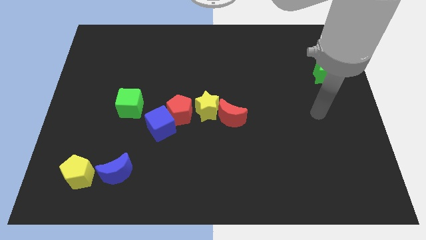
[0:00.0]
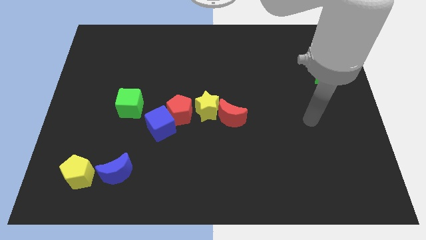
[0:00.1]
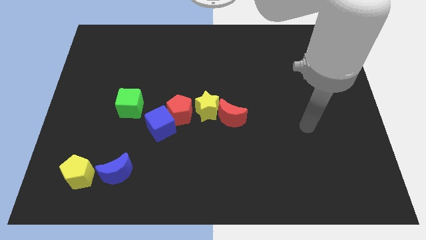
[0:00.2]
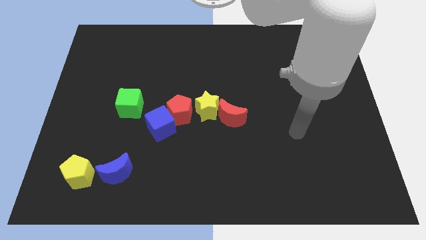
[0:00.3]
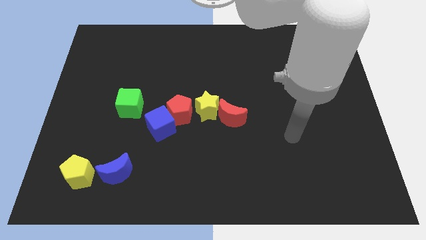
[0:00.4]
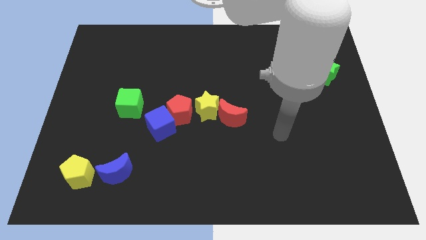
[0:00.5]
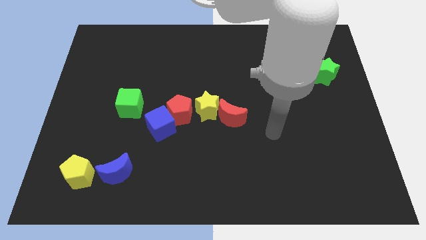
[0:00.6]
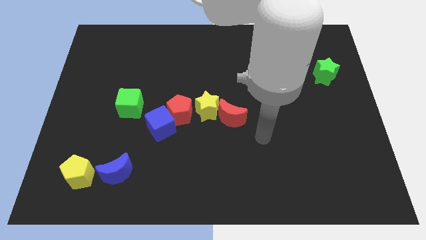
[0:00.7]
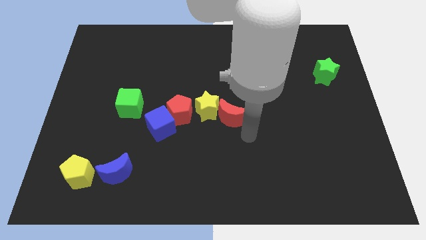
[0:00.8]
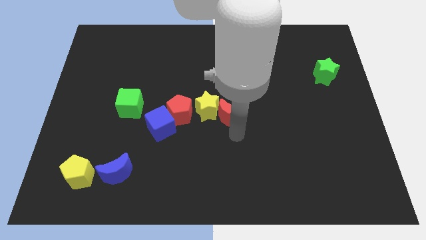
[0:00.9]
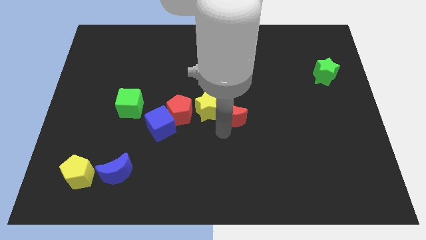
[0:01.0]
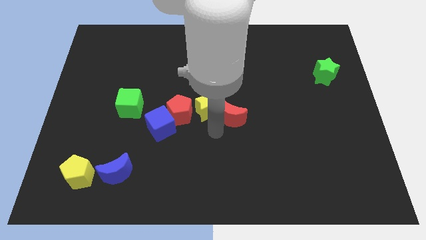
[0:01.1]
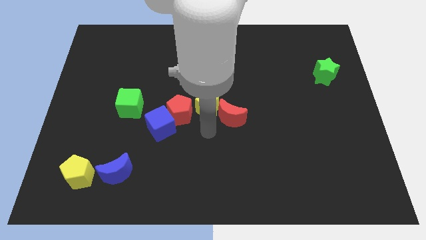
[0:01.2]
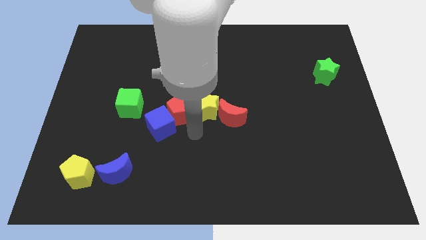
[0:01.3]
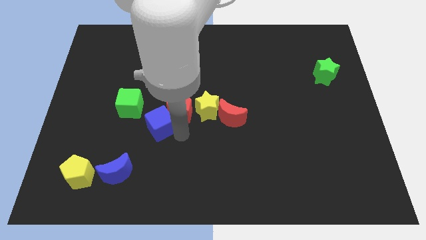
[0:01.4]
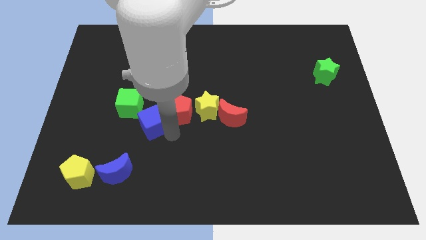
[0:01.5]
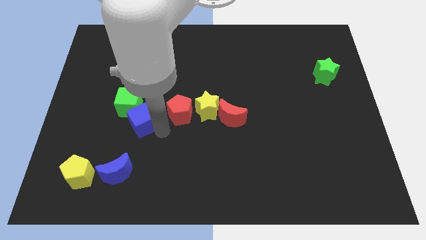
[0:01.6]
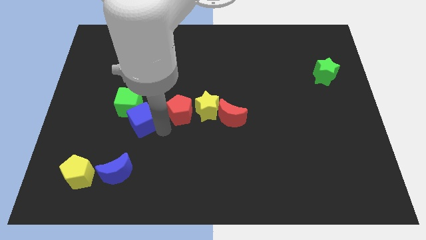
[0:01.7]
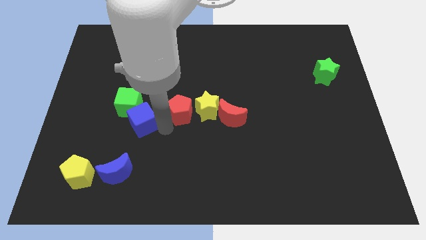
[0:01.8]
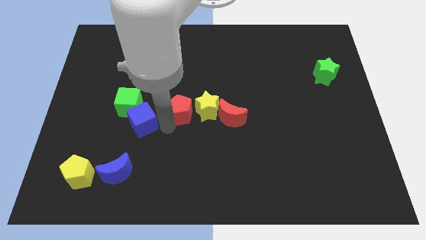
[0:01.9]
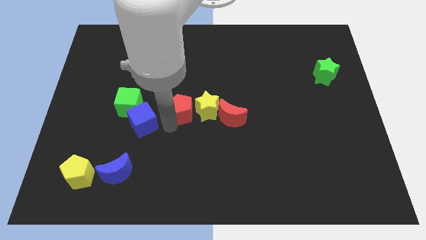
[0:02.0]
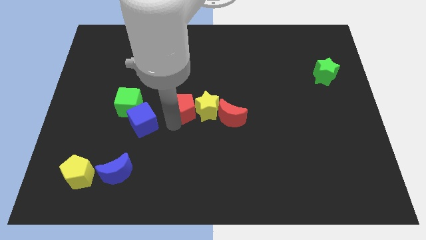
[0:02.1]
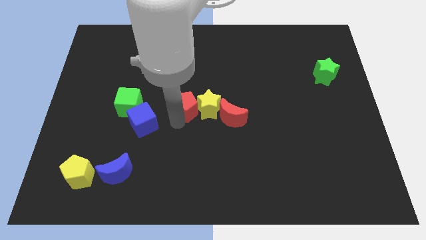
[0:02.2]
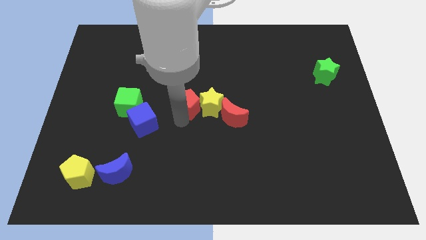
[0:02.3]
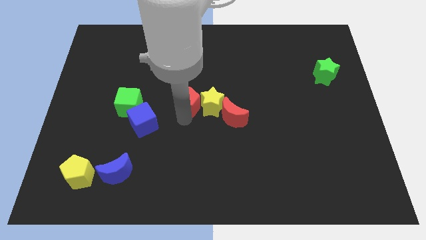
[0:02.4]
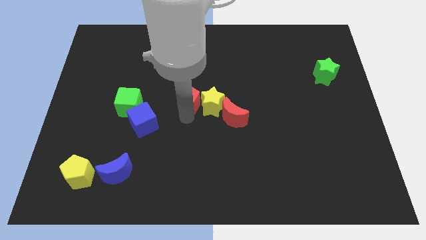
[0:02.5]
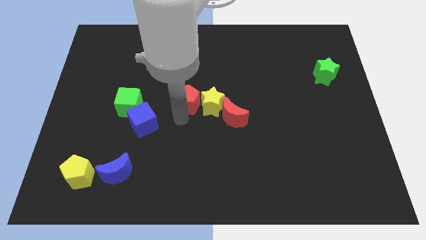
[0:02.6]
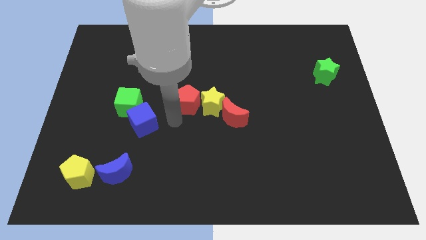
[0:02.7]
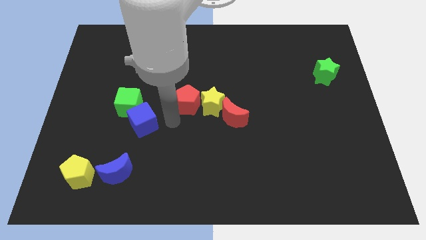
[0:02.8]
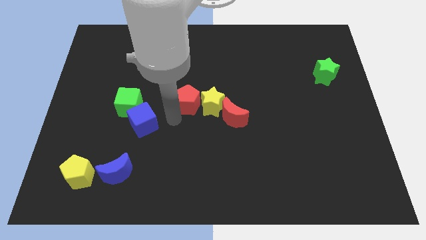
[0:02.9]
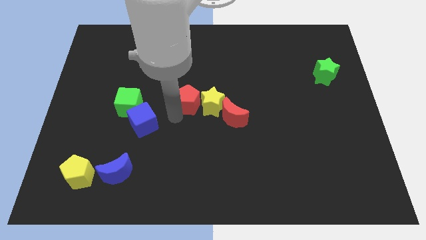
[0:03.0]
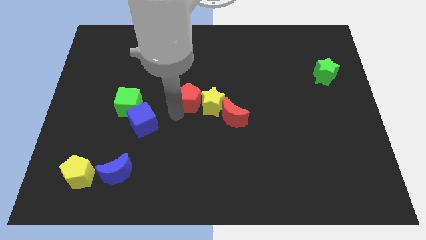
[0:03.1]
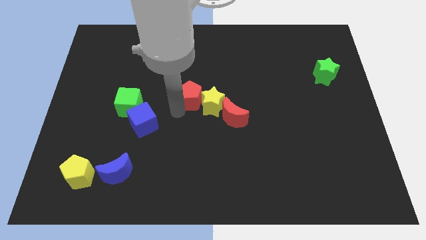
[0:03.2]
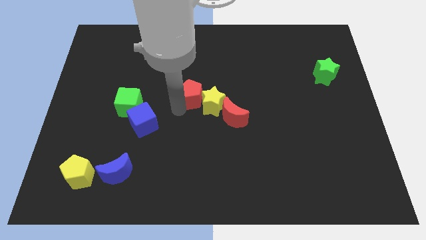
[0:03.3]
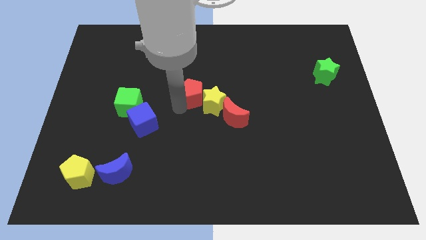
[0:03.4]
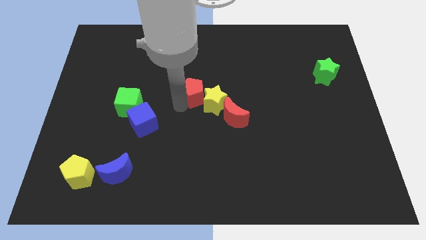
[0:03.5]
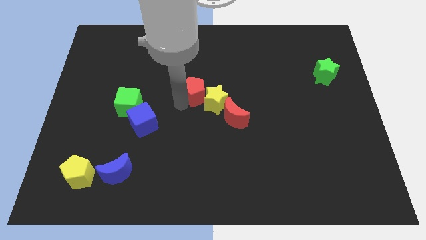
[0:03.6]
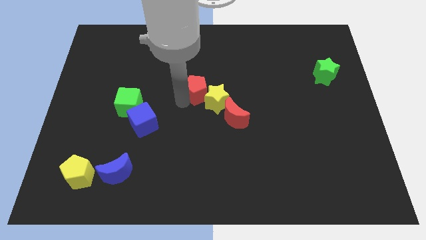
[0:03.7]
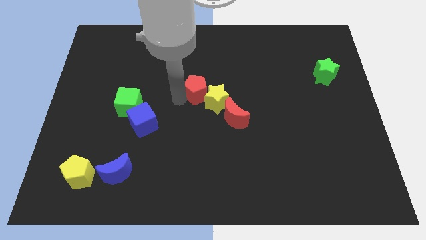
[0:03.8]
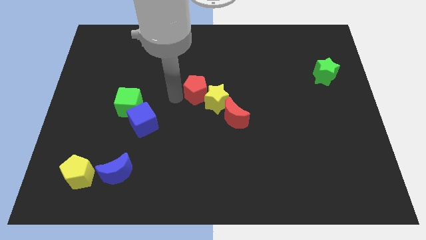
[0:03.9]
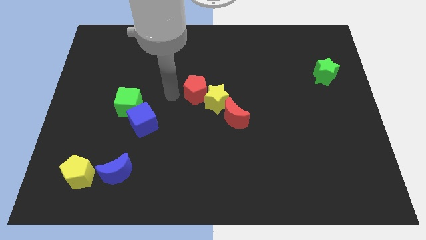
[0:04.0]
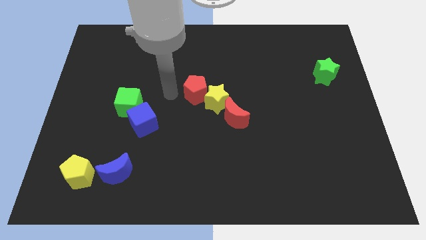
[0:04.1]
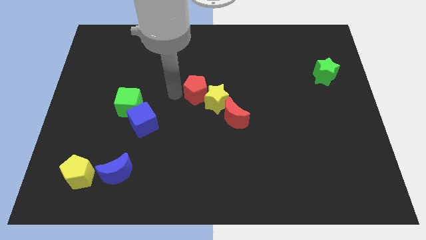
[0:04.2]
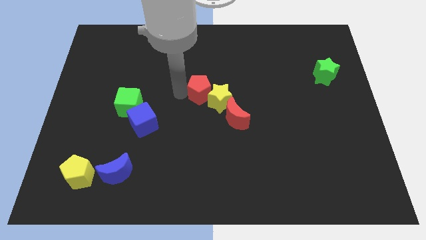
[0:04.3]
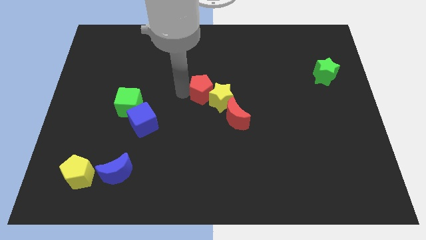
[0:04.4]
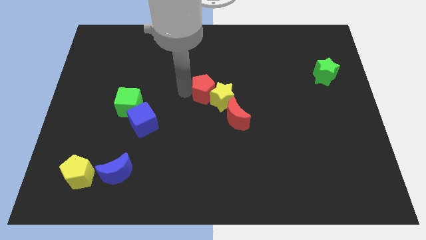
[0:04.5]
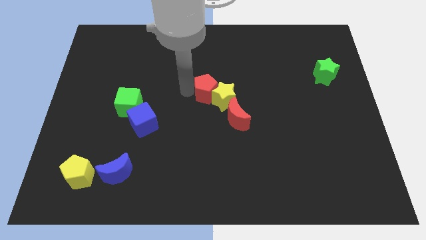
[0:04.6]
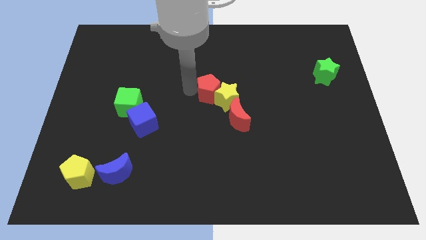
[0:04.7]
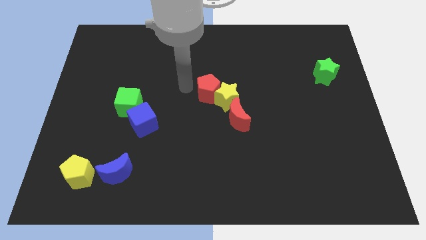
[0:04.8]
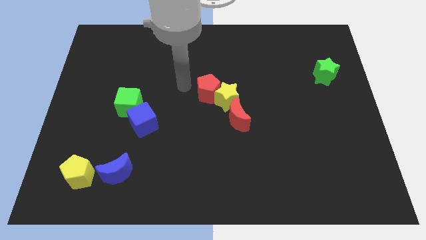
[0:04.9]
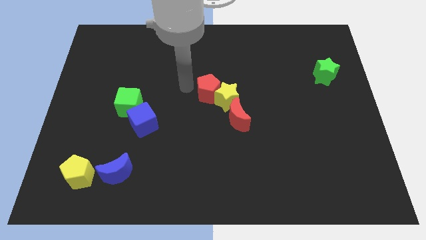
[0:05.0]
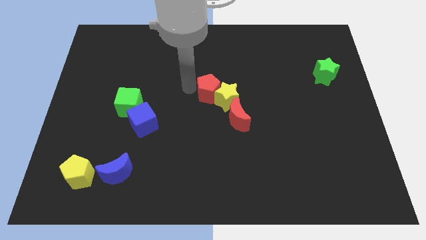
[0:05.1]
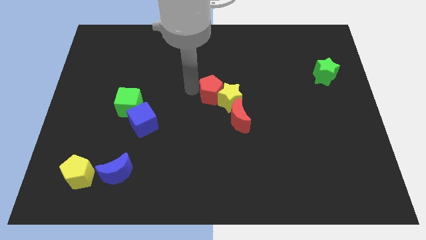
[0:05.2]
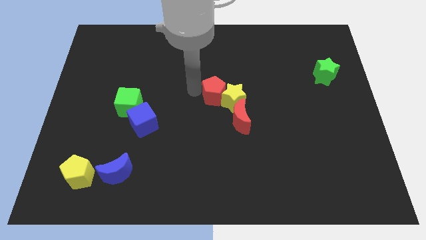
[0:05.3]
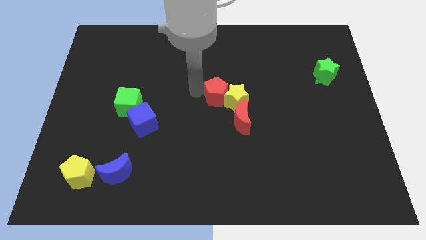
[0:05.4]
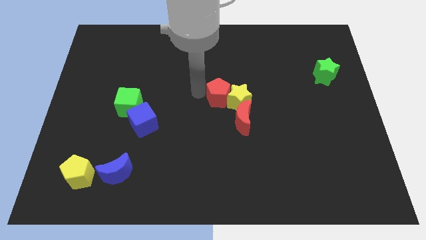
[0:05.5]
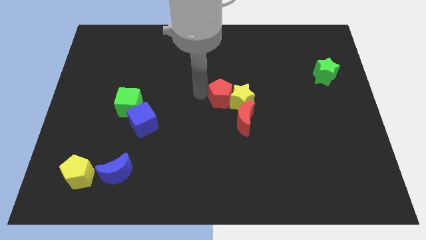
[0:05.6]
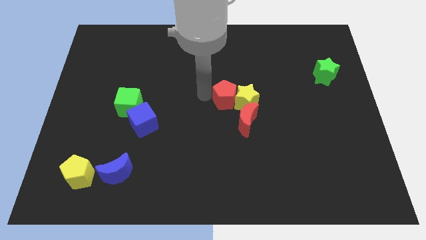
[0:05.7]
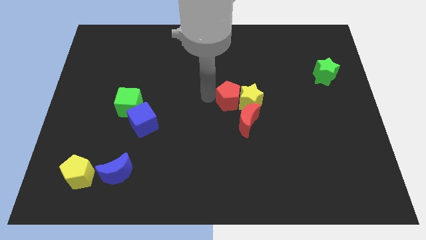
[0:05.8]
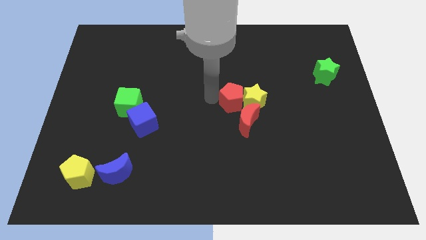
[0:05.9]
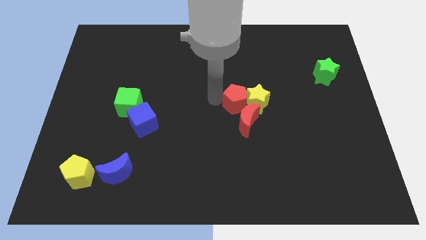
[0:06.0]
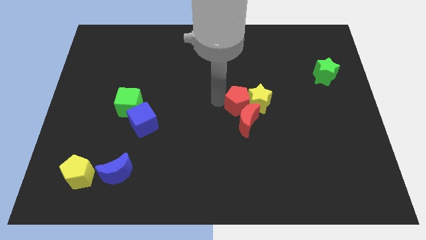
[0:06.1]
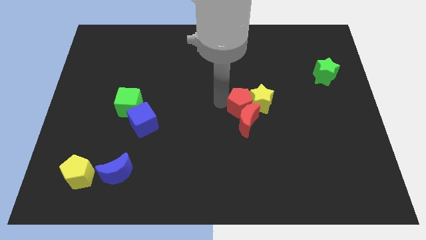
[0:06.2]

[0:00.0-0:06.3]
slide the red pentagon to the top right of the red moon

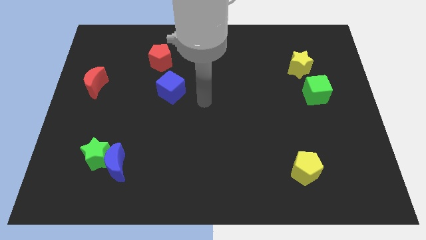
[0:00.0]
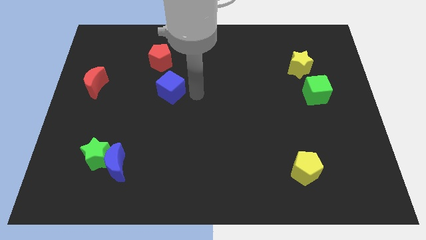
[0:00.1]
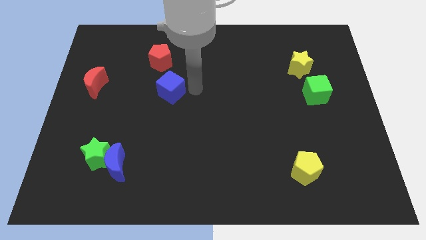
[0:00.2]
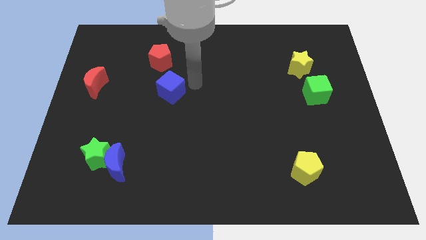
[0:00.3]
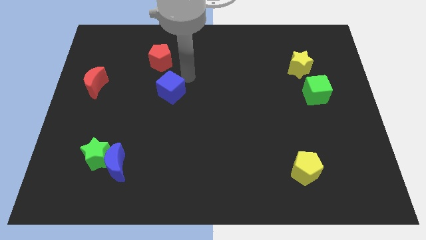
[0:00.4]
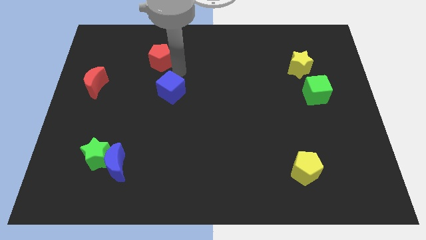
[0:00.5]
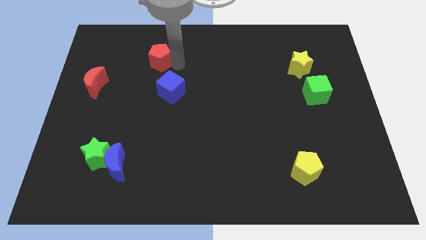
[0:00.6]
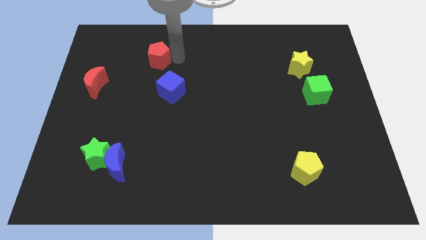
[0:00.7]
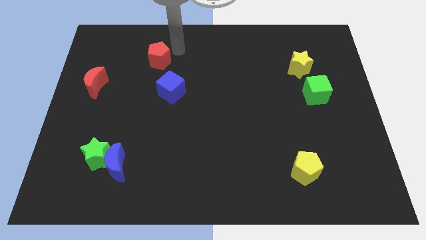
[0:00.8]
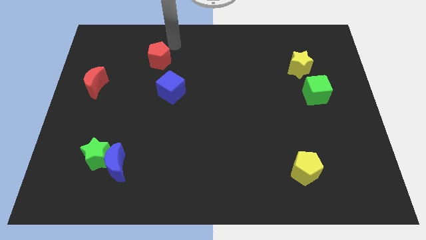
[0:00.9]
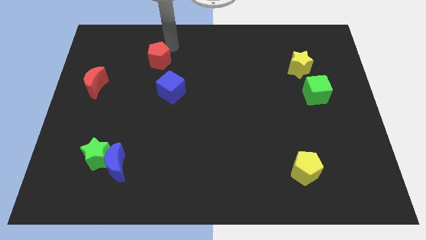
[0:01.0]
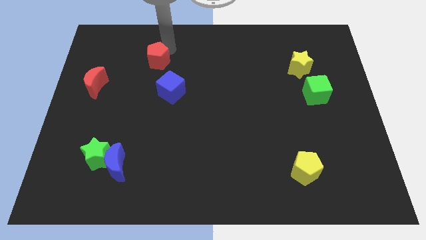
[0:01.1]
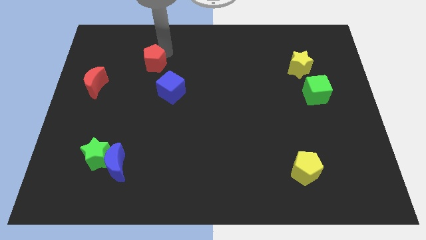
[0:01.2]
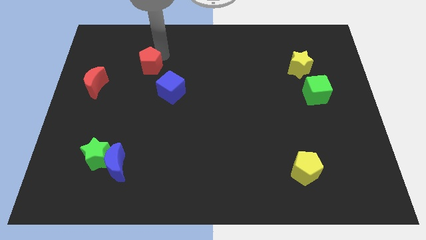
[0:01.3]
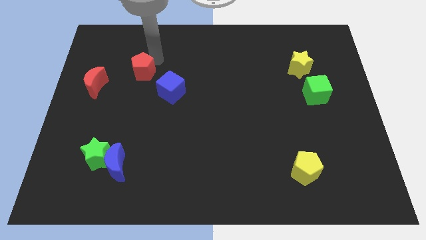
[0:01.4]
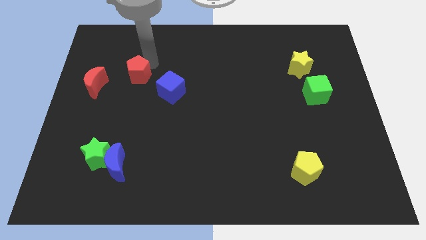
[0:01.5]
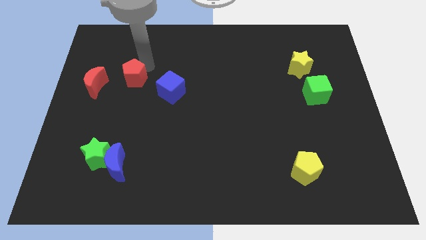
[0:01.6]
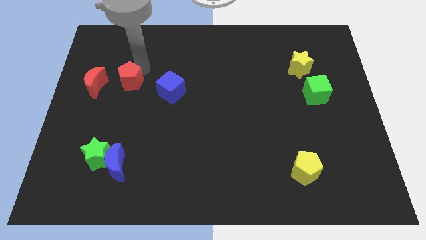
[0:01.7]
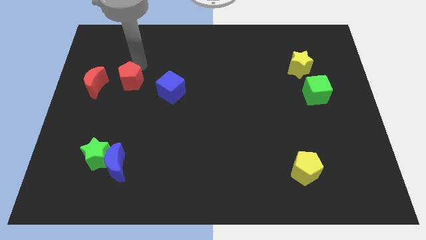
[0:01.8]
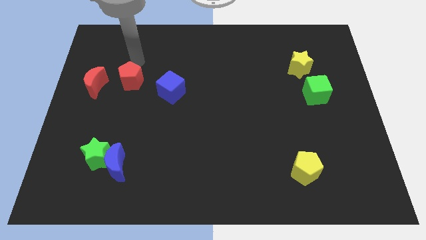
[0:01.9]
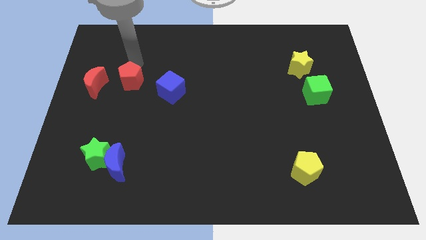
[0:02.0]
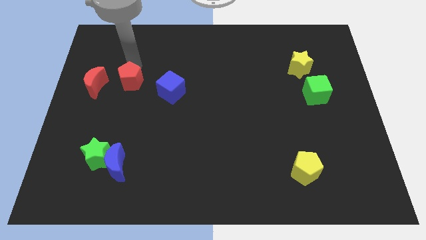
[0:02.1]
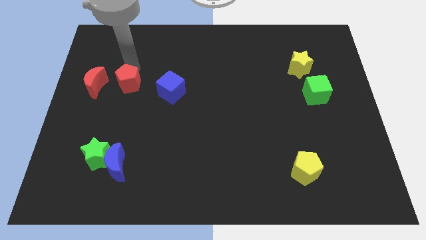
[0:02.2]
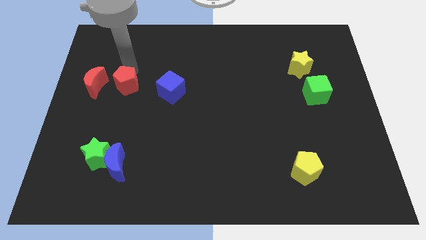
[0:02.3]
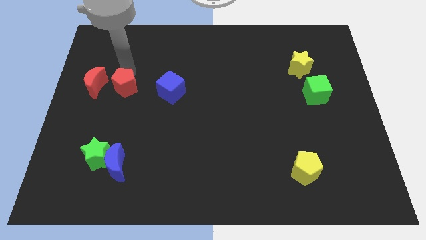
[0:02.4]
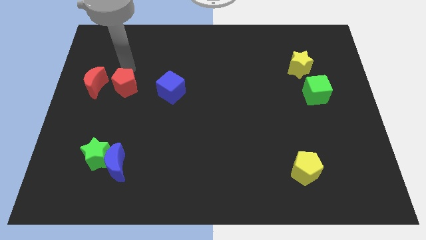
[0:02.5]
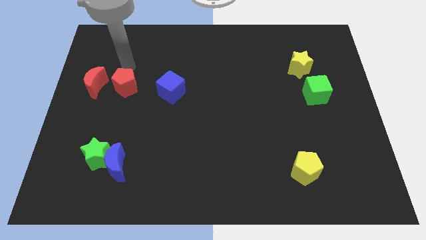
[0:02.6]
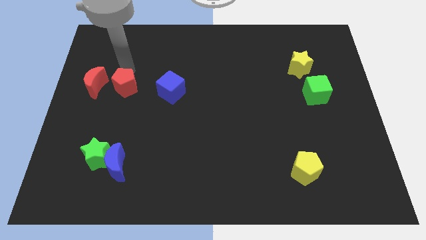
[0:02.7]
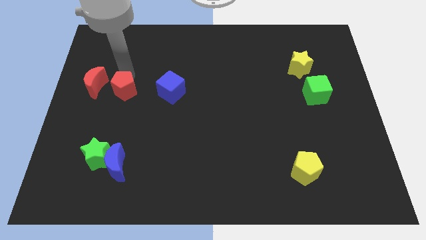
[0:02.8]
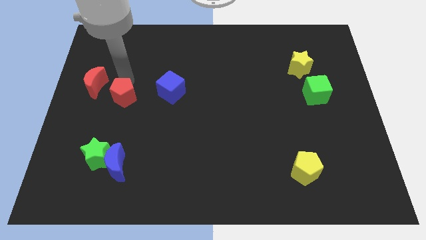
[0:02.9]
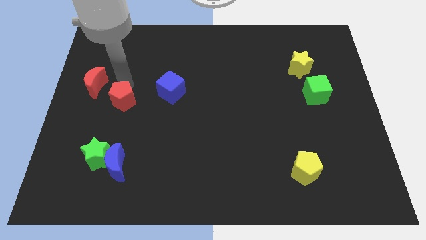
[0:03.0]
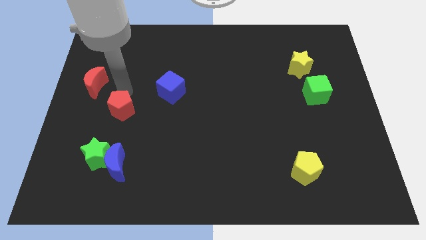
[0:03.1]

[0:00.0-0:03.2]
push the red pentagon to the top side of the blue moon
